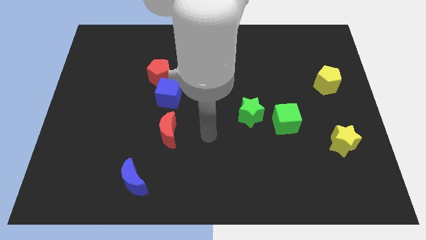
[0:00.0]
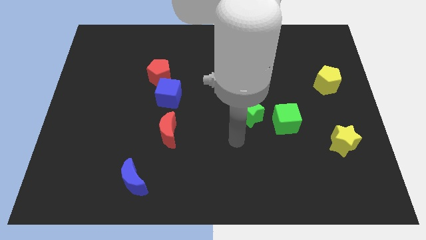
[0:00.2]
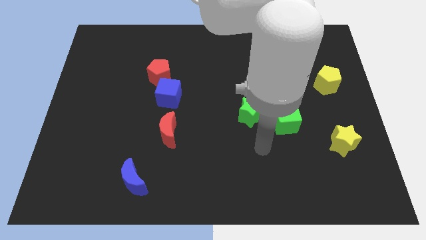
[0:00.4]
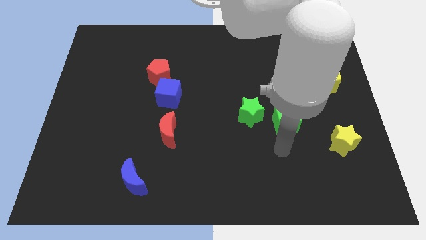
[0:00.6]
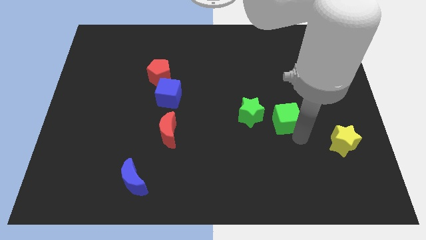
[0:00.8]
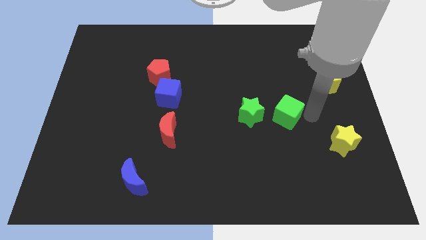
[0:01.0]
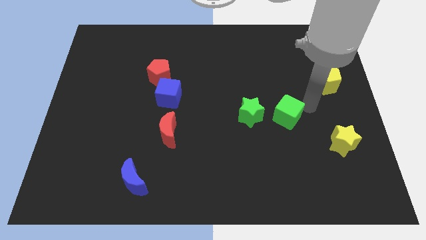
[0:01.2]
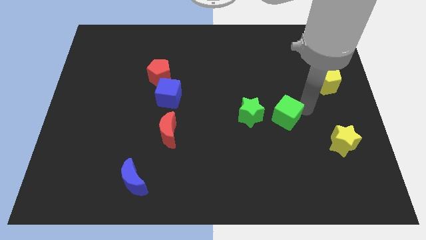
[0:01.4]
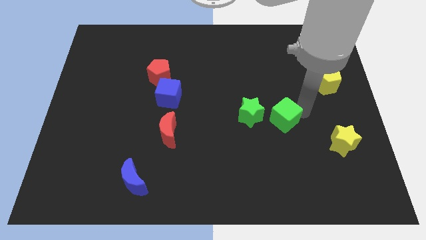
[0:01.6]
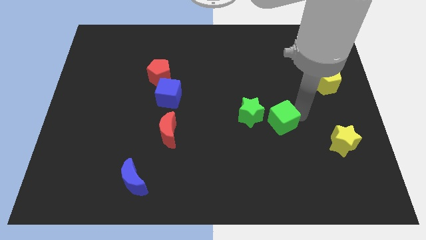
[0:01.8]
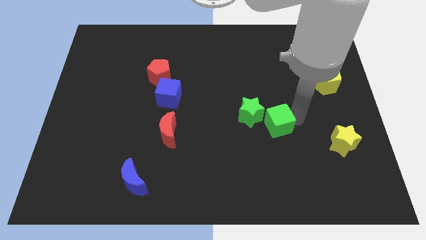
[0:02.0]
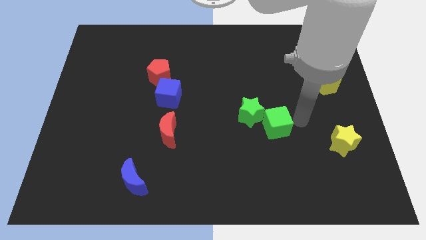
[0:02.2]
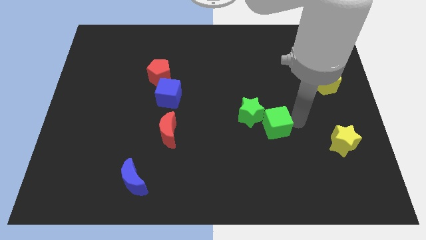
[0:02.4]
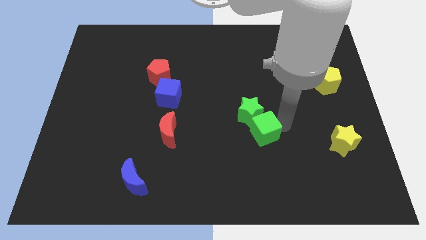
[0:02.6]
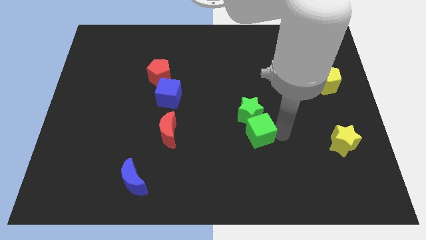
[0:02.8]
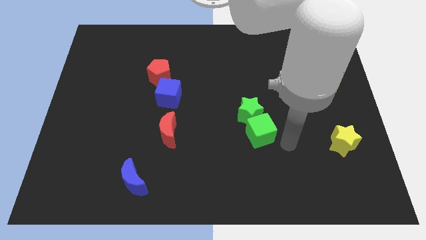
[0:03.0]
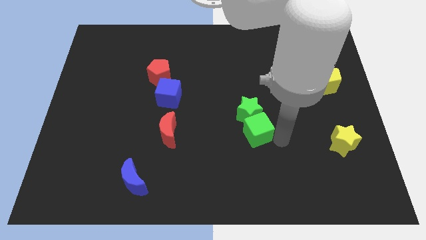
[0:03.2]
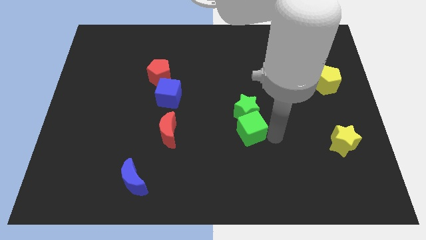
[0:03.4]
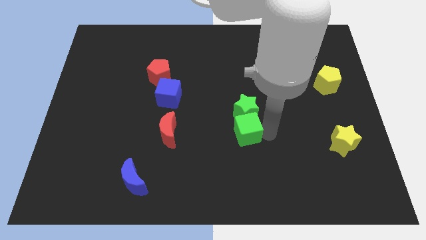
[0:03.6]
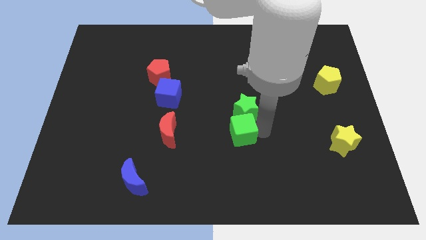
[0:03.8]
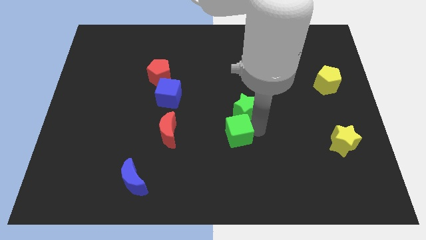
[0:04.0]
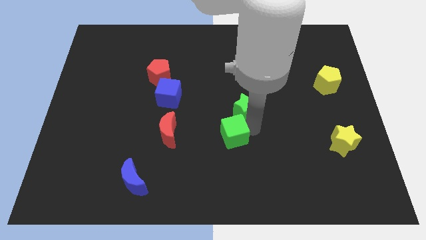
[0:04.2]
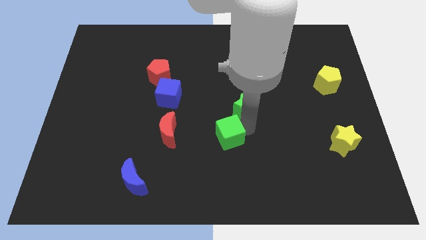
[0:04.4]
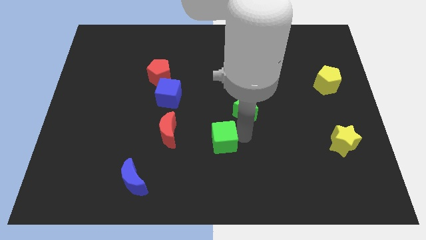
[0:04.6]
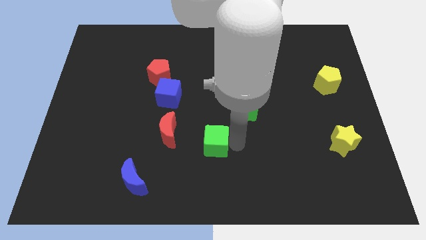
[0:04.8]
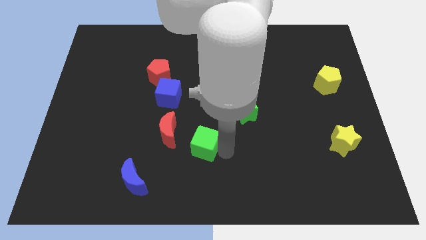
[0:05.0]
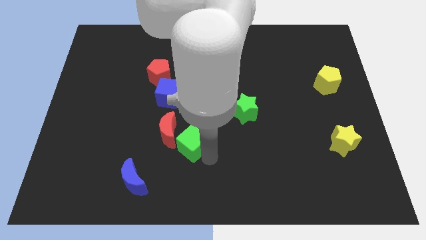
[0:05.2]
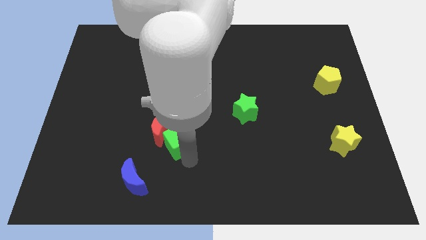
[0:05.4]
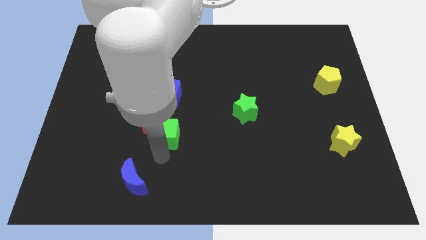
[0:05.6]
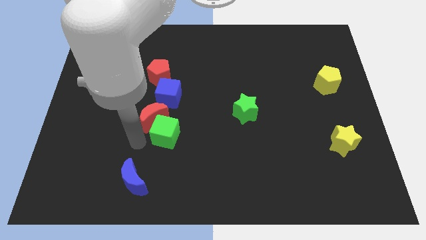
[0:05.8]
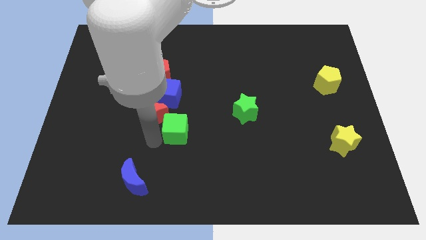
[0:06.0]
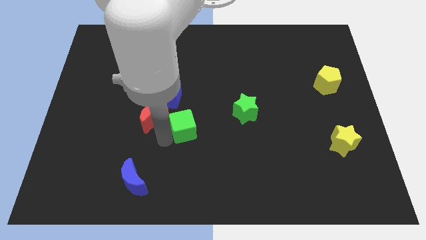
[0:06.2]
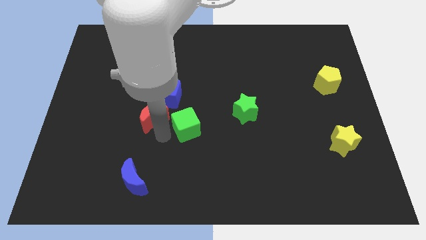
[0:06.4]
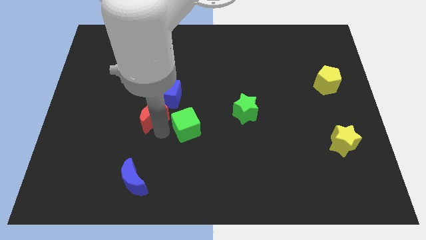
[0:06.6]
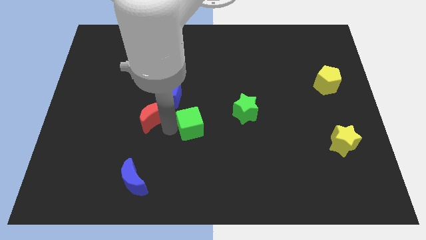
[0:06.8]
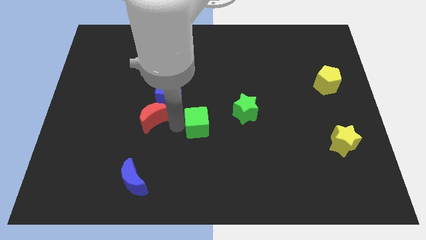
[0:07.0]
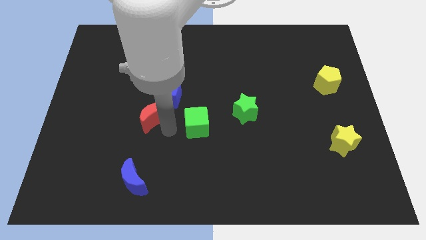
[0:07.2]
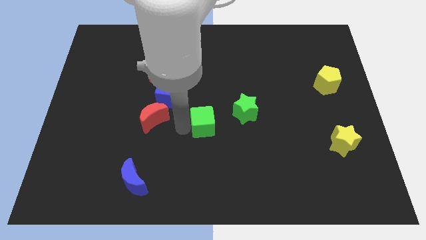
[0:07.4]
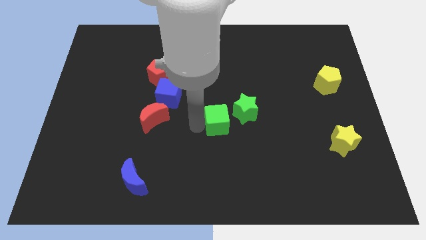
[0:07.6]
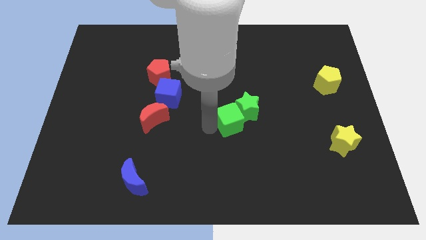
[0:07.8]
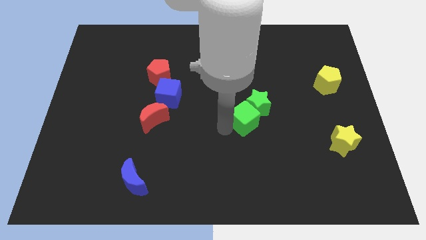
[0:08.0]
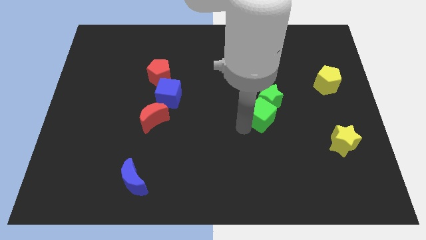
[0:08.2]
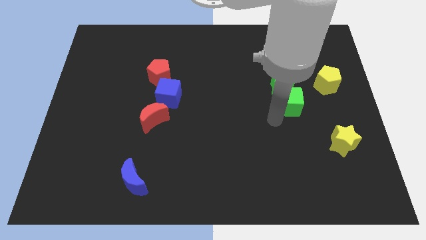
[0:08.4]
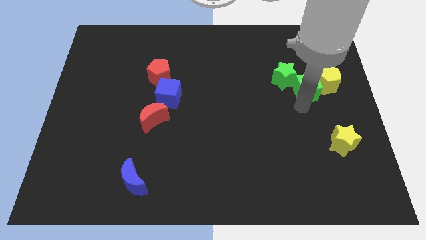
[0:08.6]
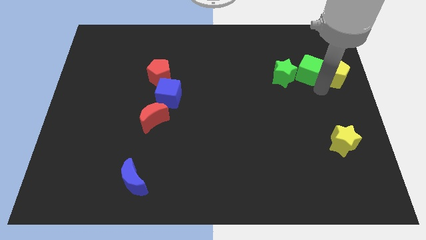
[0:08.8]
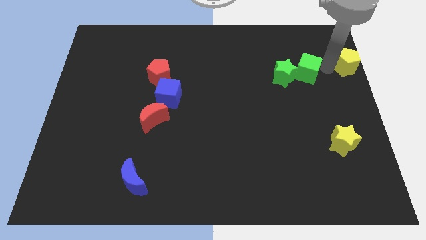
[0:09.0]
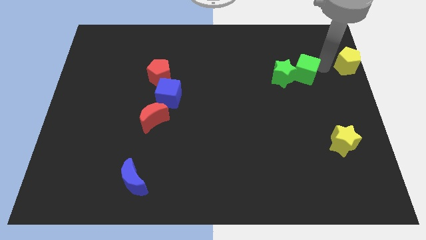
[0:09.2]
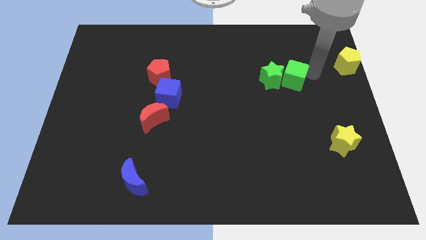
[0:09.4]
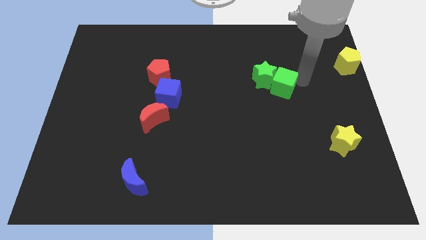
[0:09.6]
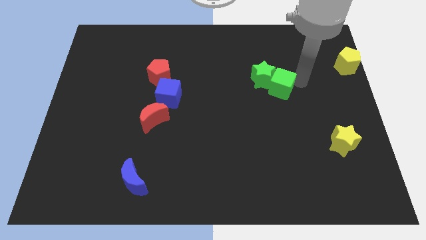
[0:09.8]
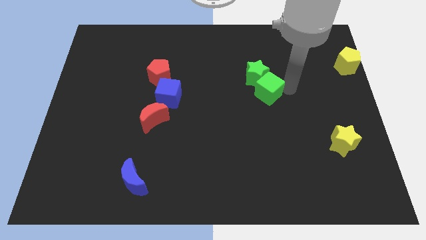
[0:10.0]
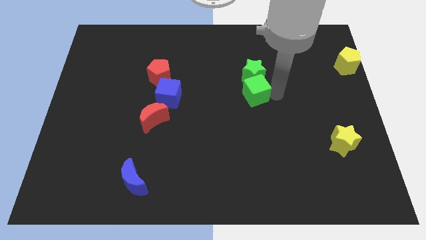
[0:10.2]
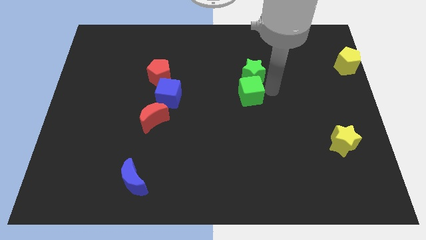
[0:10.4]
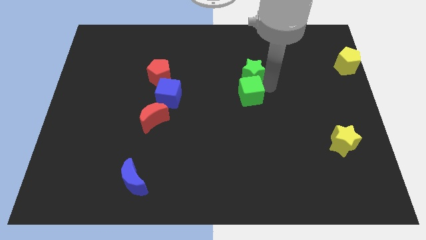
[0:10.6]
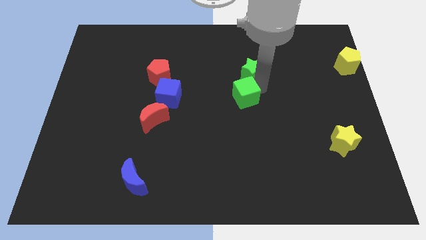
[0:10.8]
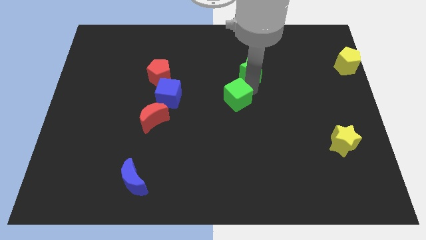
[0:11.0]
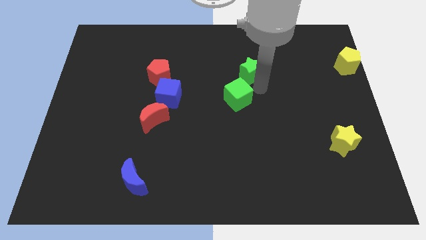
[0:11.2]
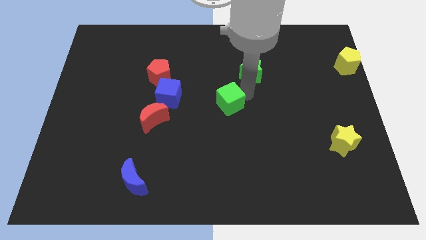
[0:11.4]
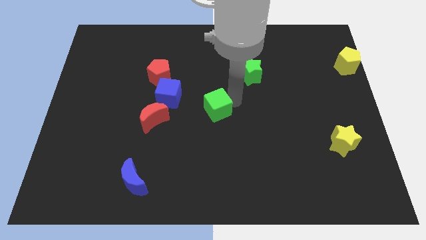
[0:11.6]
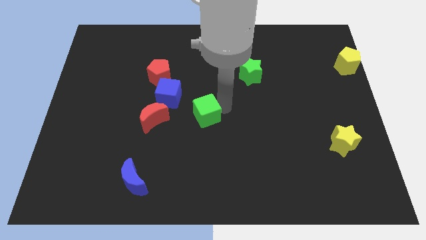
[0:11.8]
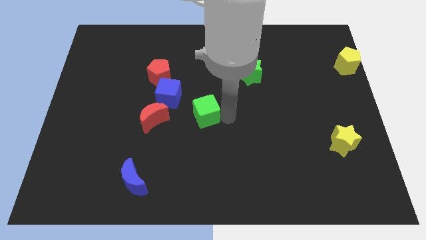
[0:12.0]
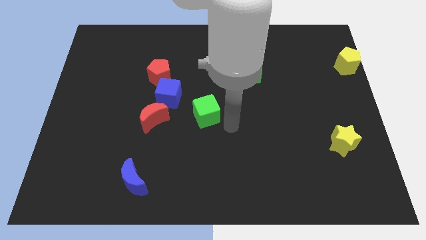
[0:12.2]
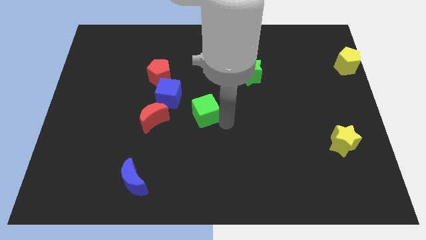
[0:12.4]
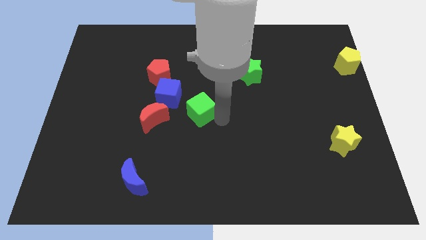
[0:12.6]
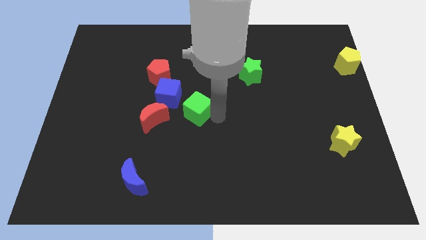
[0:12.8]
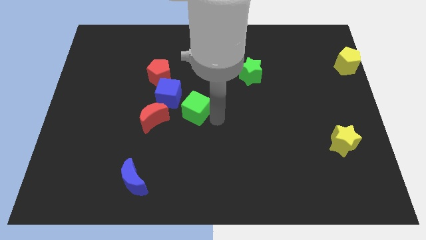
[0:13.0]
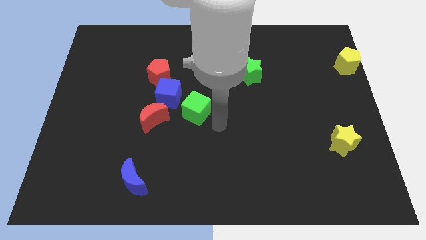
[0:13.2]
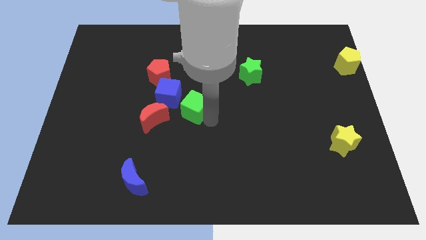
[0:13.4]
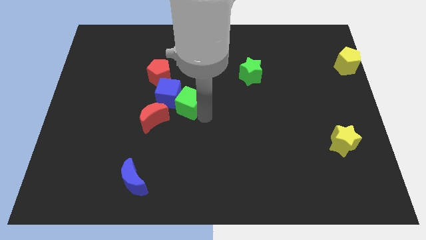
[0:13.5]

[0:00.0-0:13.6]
slide the green cube towards the blue cube

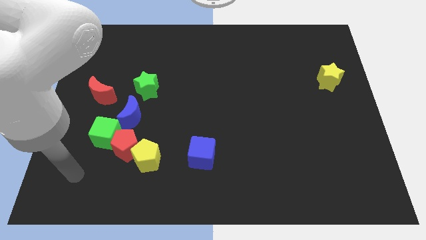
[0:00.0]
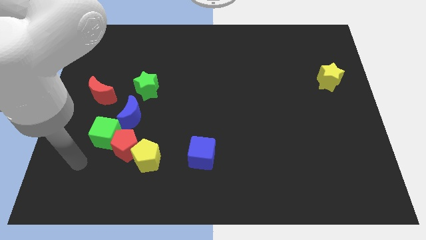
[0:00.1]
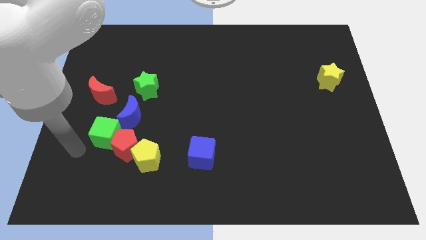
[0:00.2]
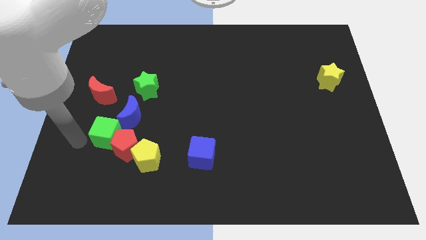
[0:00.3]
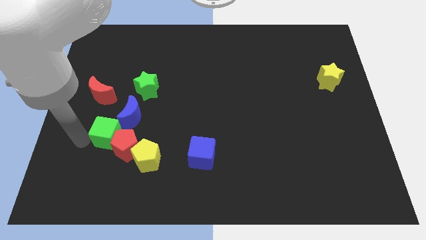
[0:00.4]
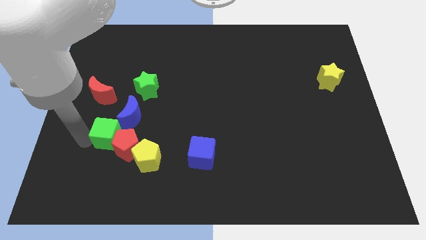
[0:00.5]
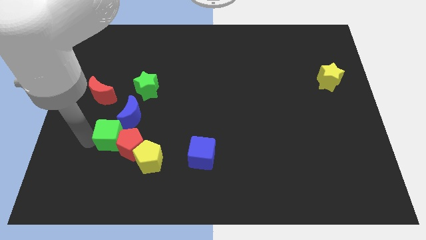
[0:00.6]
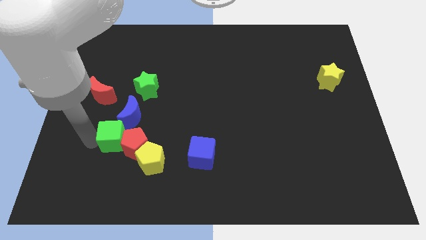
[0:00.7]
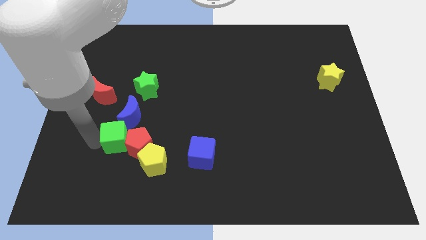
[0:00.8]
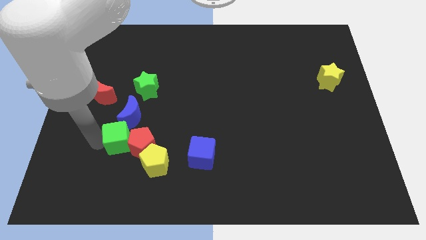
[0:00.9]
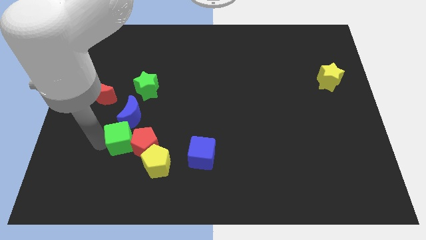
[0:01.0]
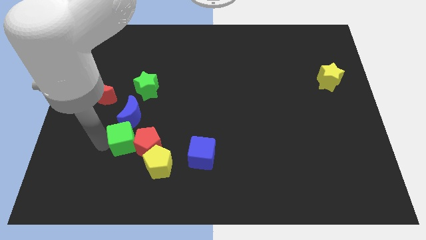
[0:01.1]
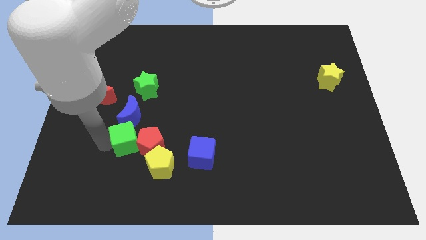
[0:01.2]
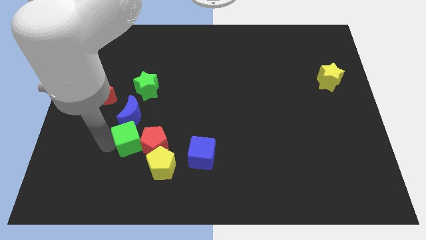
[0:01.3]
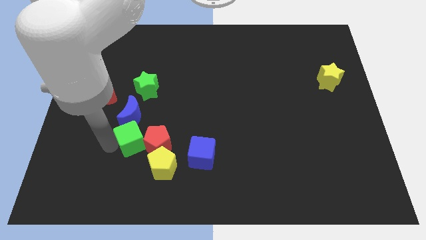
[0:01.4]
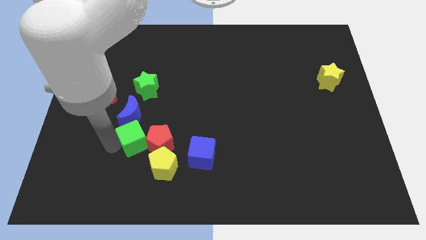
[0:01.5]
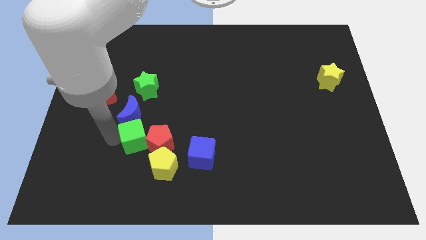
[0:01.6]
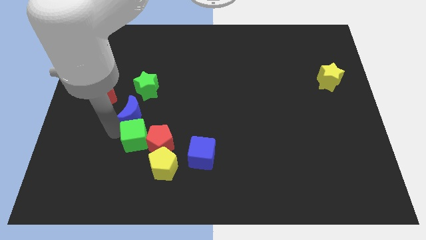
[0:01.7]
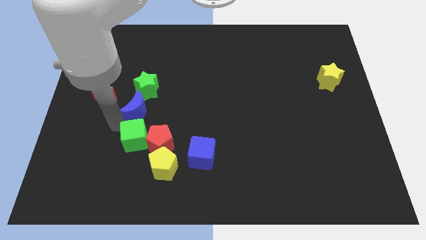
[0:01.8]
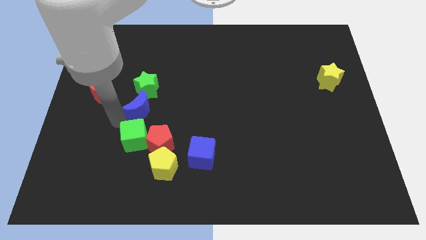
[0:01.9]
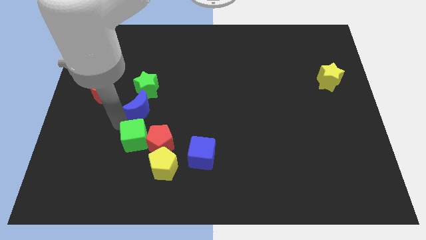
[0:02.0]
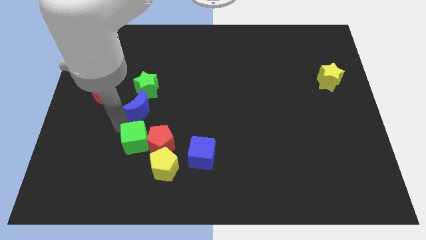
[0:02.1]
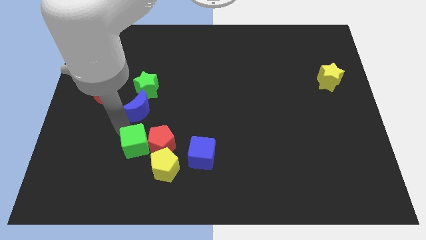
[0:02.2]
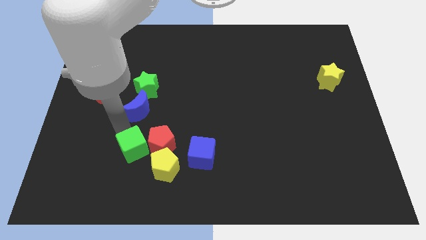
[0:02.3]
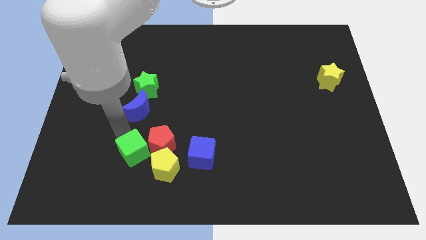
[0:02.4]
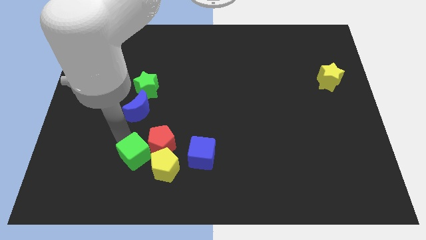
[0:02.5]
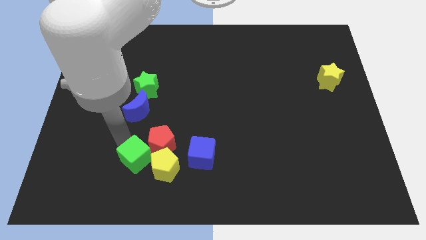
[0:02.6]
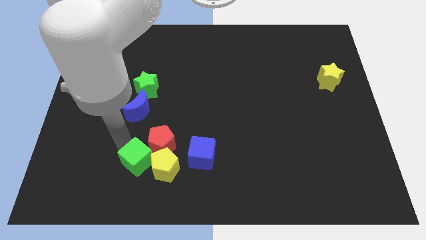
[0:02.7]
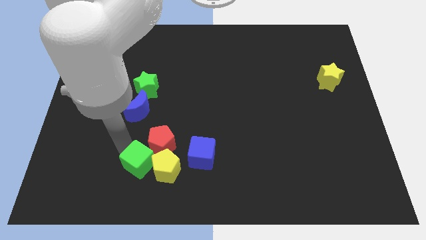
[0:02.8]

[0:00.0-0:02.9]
move the green cube to the yellow pentagon
